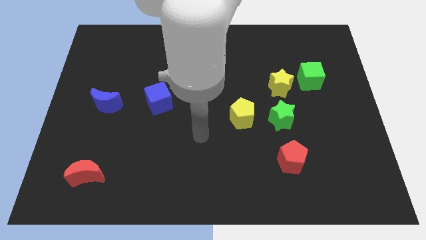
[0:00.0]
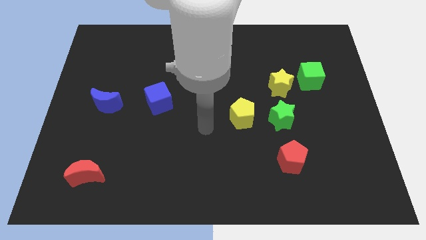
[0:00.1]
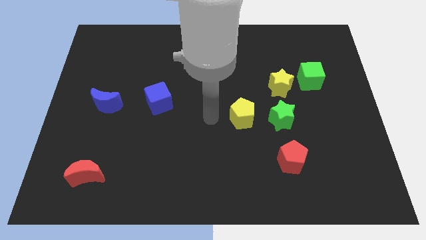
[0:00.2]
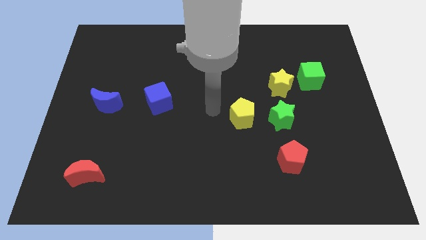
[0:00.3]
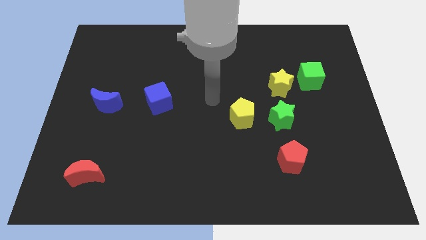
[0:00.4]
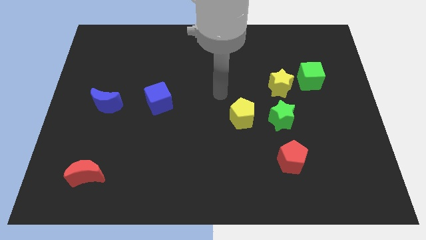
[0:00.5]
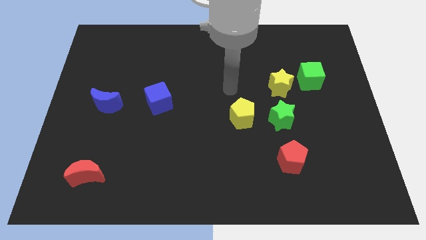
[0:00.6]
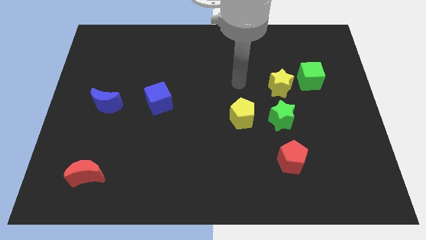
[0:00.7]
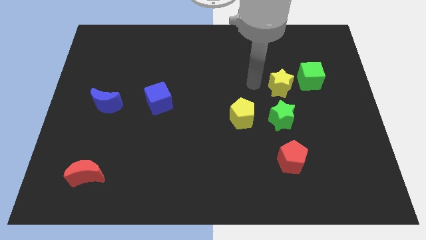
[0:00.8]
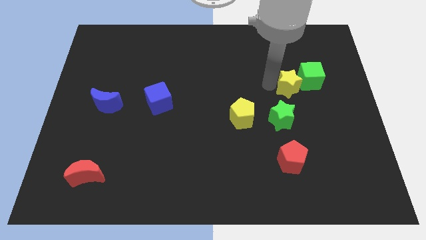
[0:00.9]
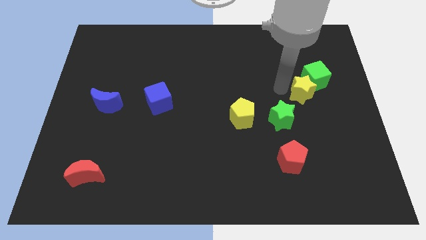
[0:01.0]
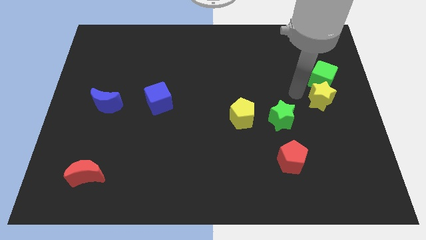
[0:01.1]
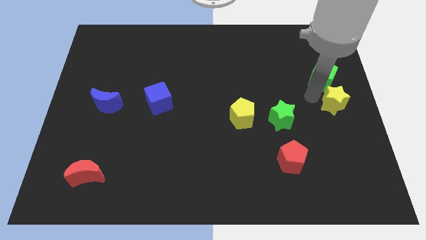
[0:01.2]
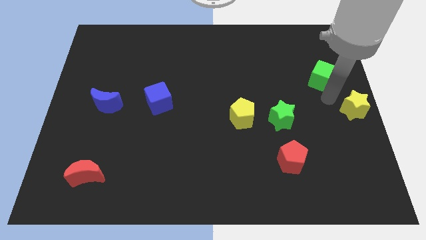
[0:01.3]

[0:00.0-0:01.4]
separate the green cube from the yellow star

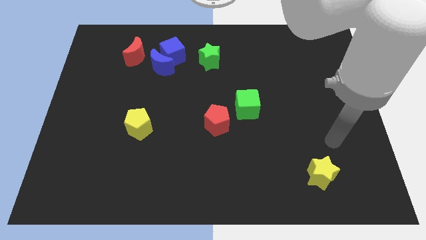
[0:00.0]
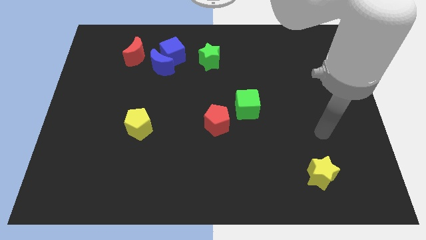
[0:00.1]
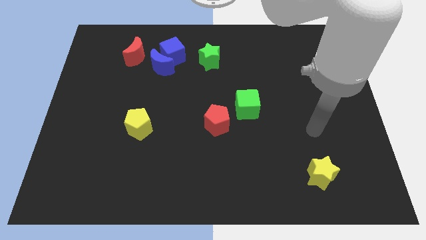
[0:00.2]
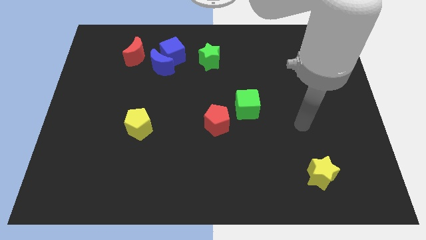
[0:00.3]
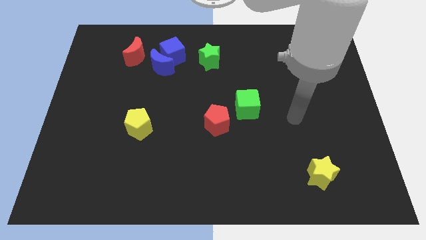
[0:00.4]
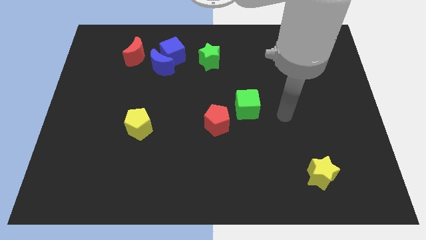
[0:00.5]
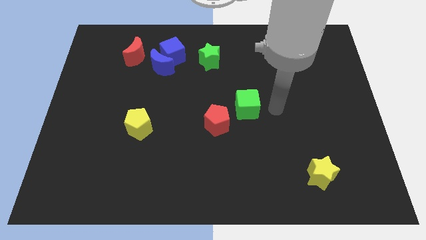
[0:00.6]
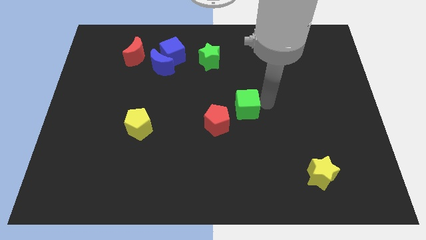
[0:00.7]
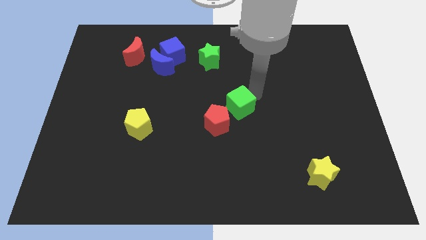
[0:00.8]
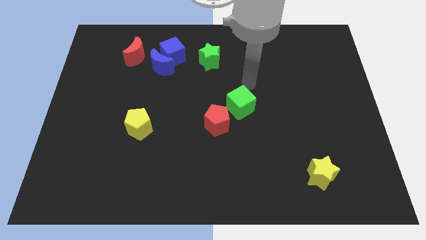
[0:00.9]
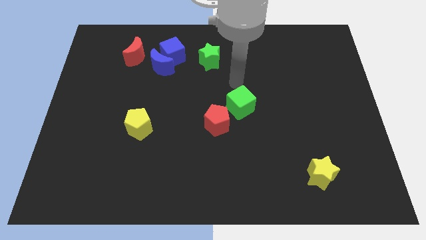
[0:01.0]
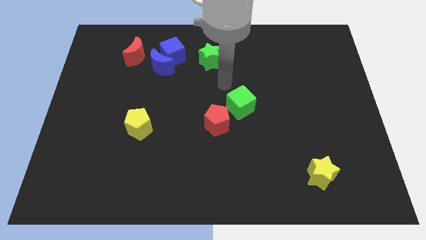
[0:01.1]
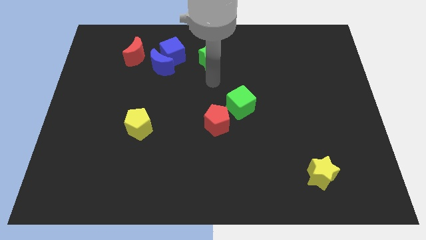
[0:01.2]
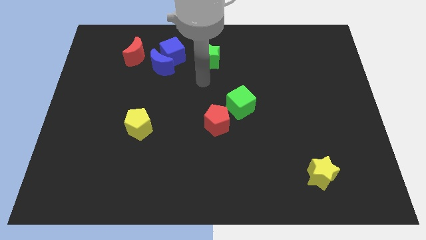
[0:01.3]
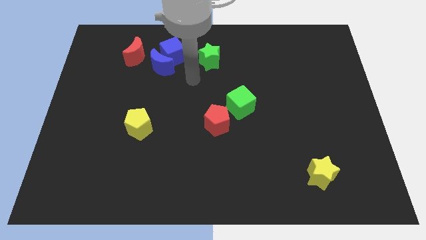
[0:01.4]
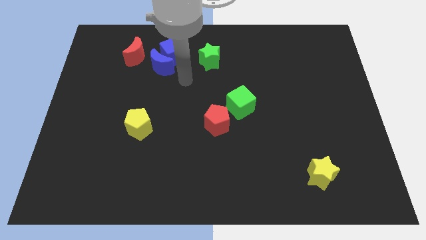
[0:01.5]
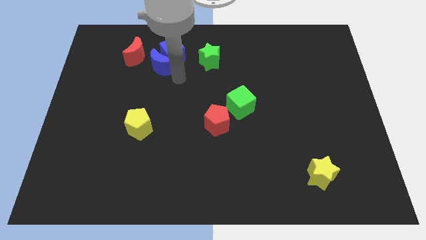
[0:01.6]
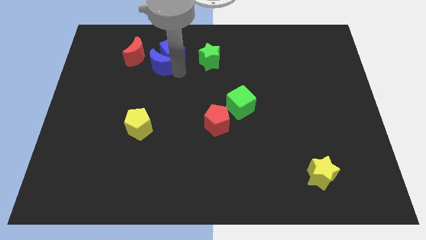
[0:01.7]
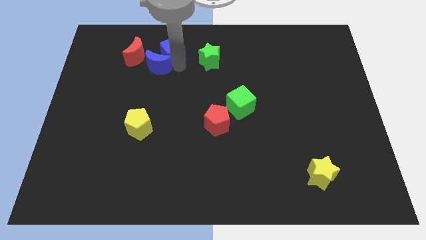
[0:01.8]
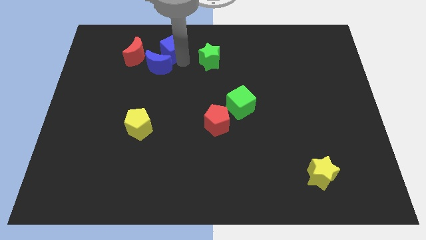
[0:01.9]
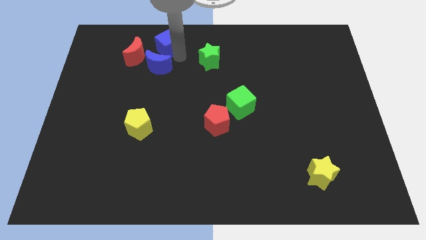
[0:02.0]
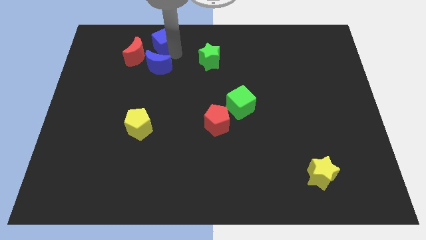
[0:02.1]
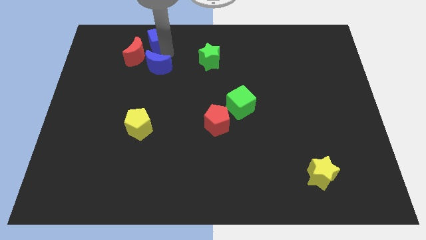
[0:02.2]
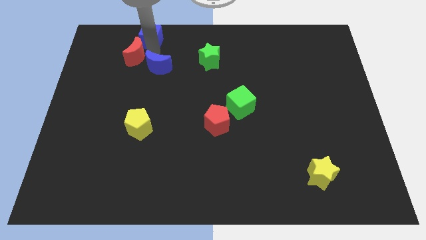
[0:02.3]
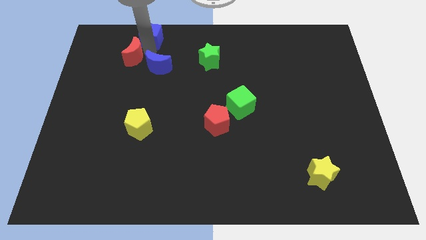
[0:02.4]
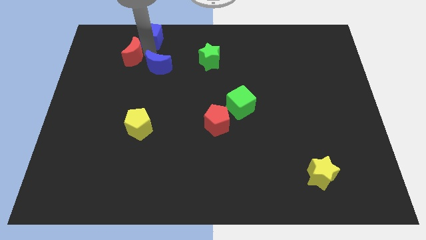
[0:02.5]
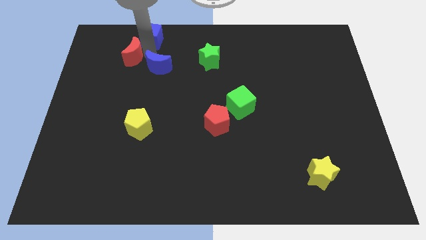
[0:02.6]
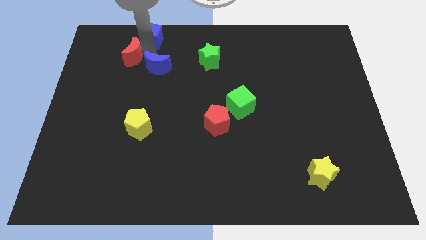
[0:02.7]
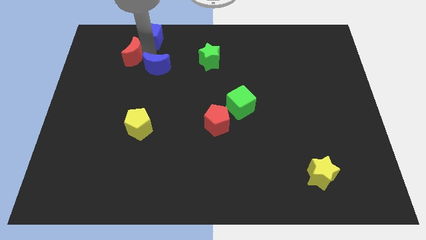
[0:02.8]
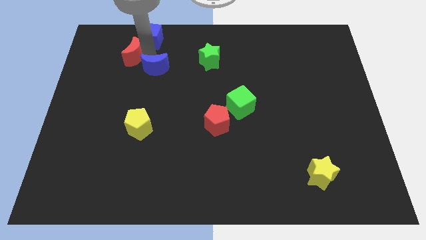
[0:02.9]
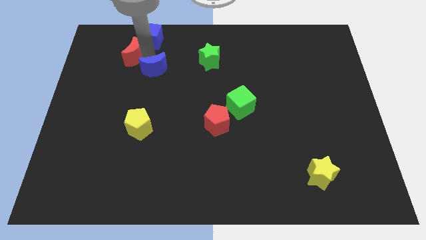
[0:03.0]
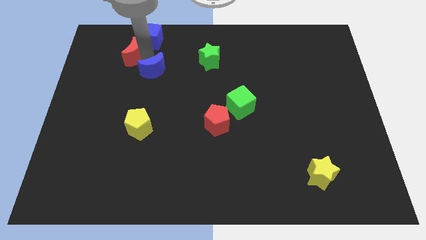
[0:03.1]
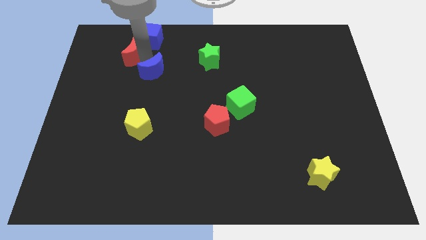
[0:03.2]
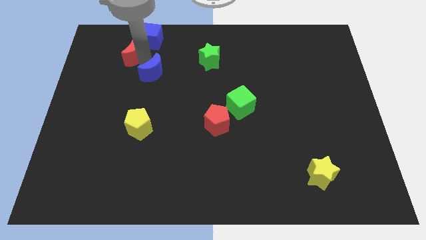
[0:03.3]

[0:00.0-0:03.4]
pull the blue moon apart from the blue cube and red moon

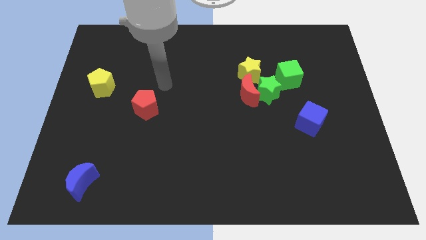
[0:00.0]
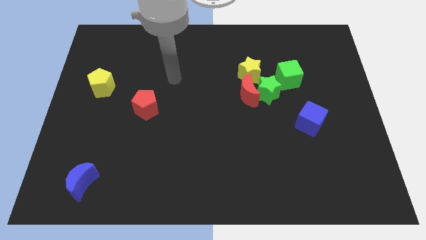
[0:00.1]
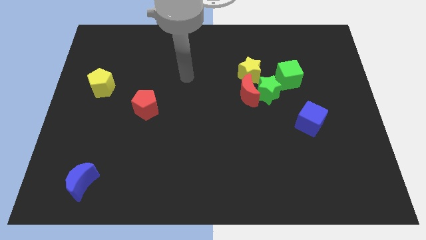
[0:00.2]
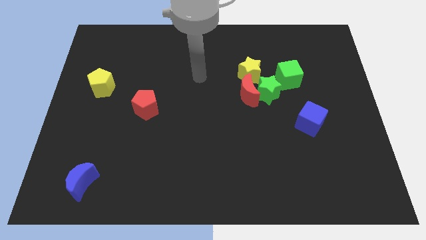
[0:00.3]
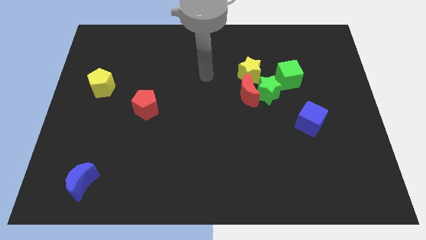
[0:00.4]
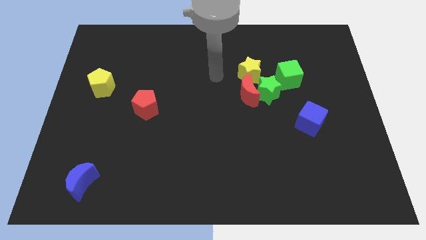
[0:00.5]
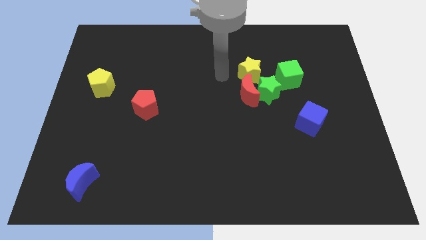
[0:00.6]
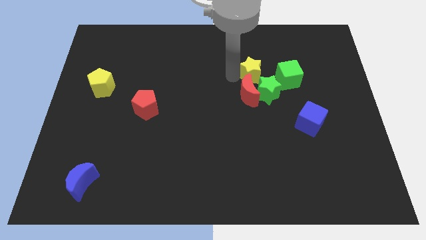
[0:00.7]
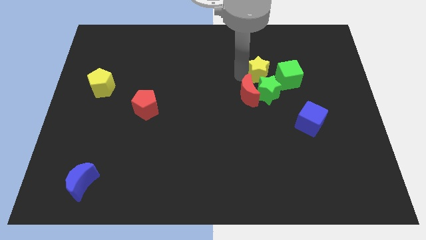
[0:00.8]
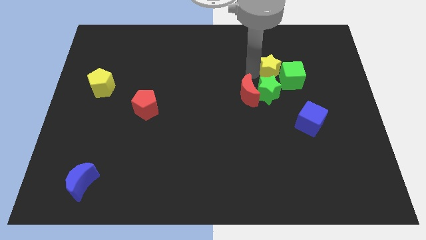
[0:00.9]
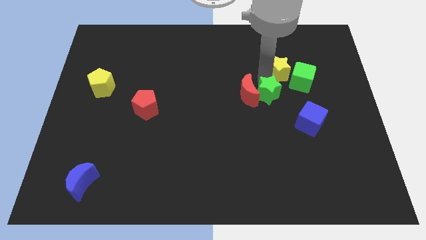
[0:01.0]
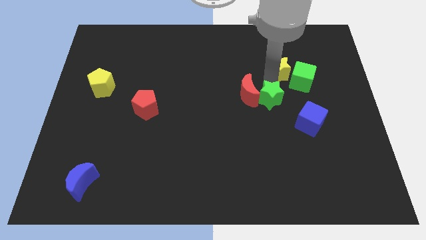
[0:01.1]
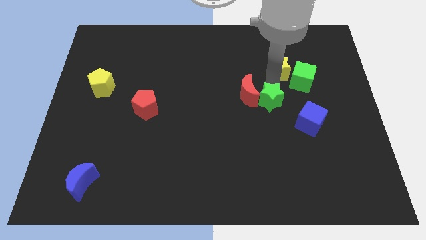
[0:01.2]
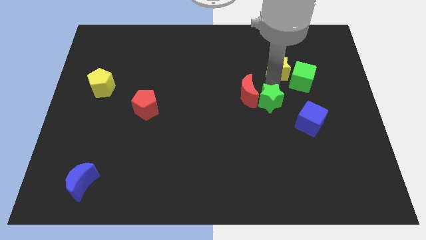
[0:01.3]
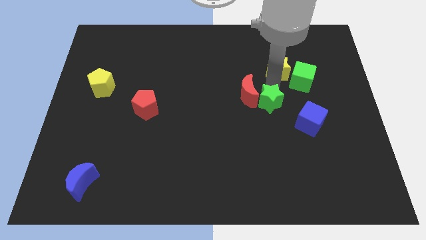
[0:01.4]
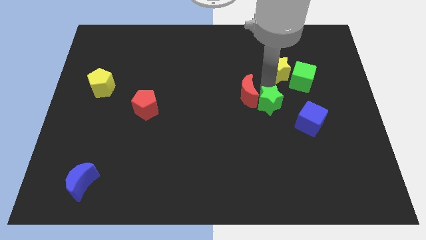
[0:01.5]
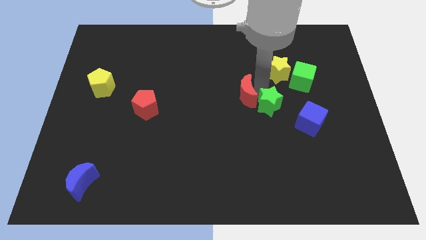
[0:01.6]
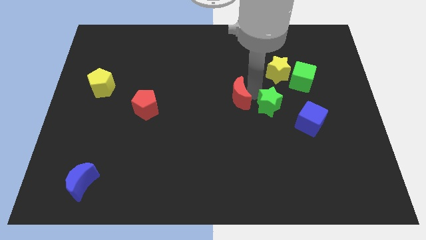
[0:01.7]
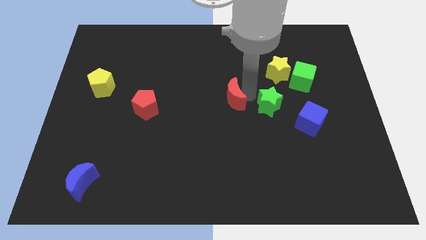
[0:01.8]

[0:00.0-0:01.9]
pull the red moon apart from the green star and yellow star

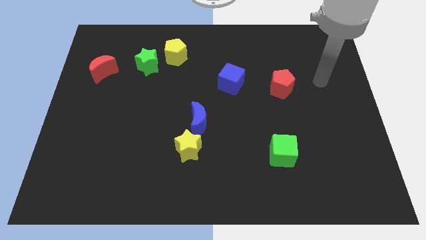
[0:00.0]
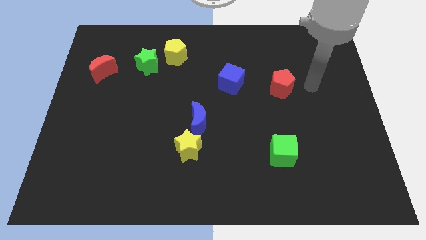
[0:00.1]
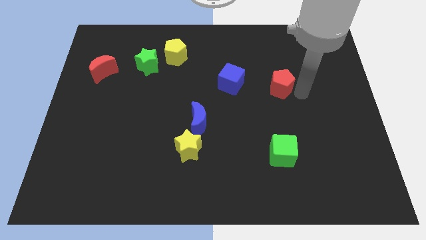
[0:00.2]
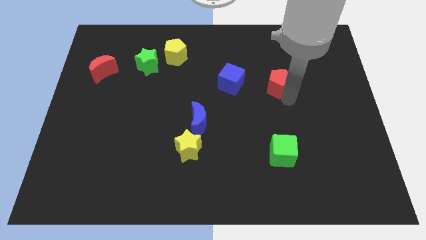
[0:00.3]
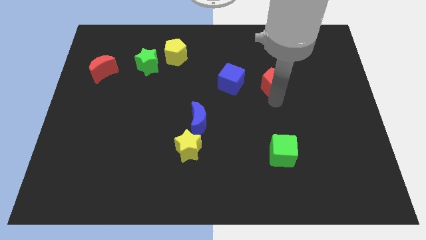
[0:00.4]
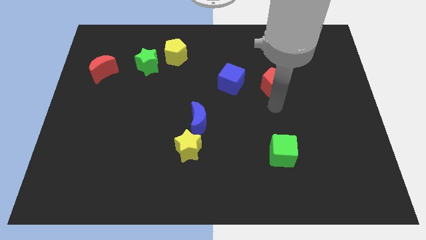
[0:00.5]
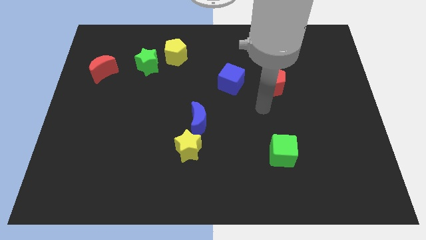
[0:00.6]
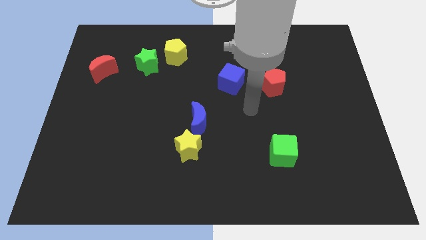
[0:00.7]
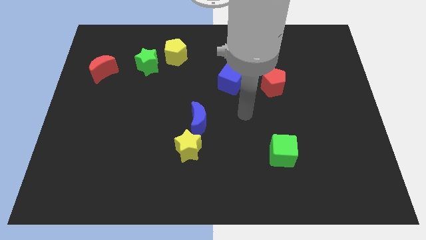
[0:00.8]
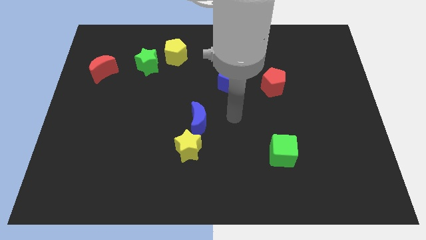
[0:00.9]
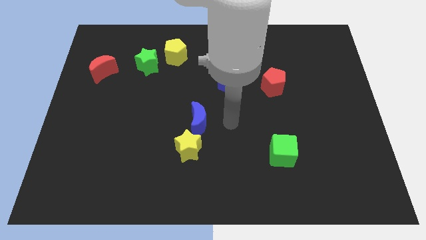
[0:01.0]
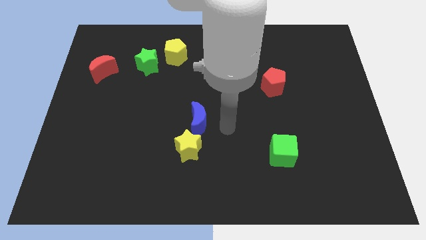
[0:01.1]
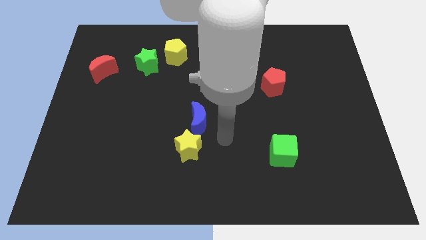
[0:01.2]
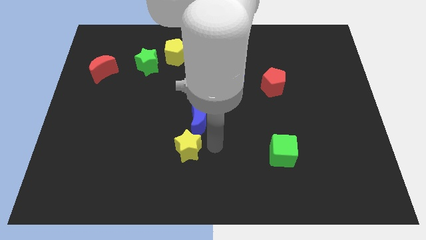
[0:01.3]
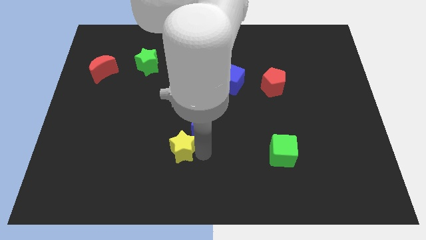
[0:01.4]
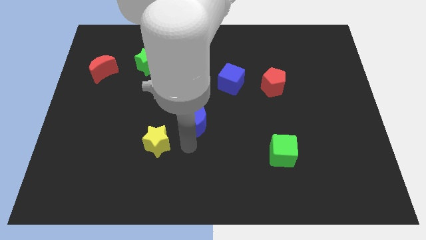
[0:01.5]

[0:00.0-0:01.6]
move the blue moon away from the yellow star

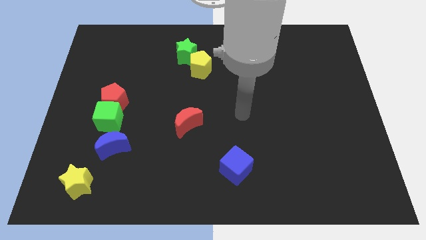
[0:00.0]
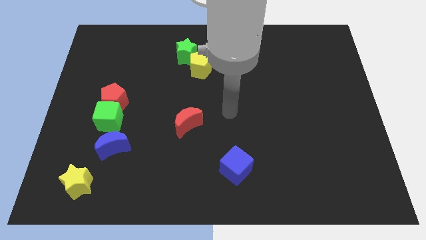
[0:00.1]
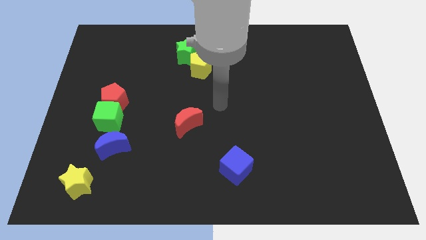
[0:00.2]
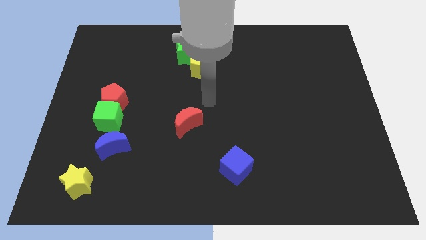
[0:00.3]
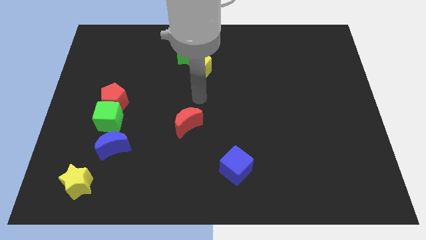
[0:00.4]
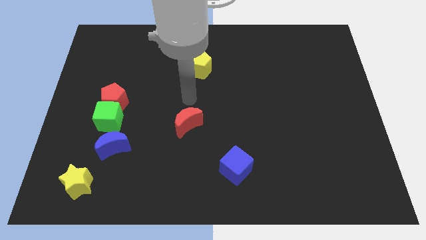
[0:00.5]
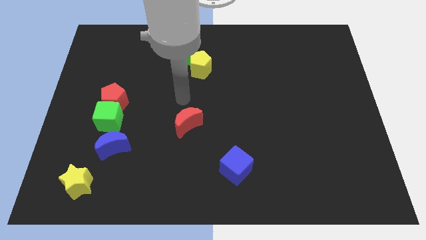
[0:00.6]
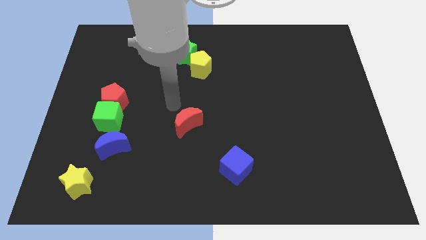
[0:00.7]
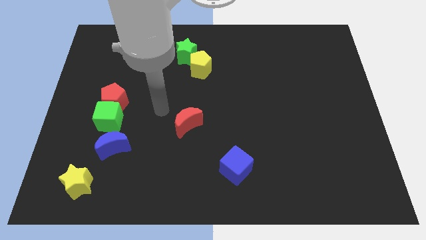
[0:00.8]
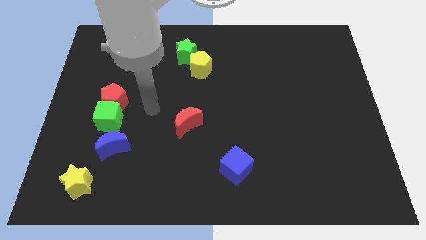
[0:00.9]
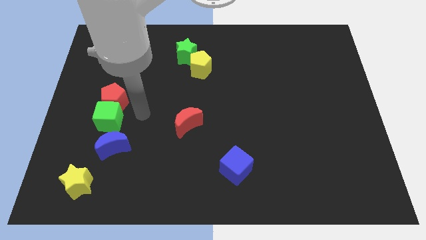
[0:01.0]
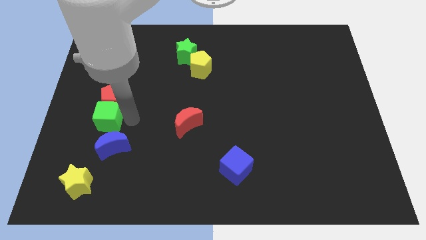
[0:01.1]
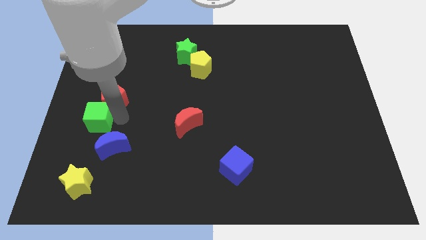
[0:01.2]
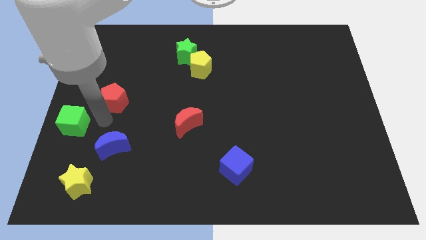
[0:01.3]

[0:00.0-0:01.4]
pull the red pentagon apart from the green cube
